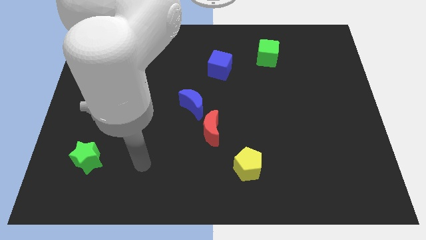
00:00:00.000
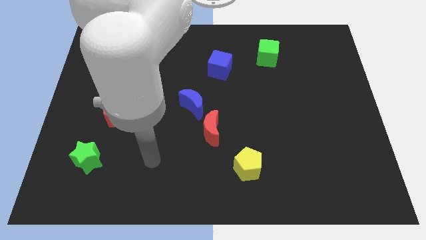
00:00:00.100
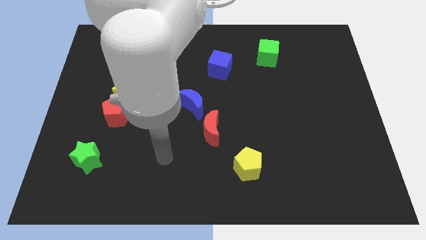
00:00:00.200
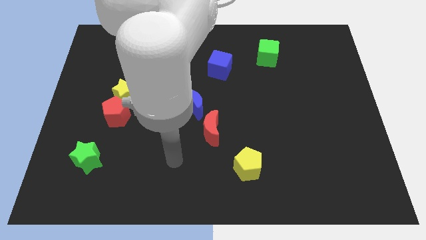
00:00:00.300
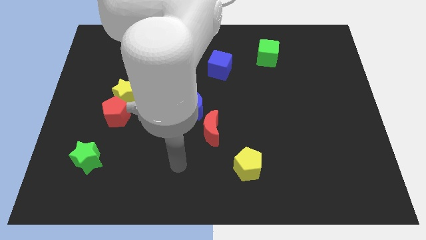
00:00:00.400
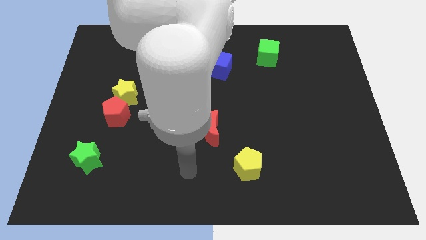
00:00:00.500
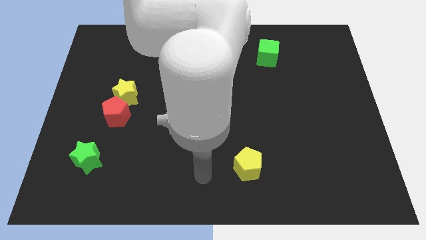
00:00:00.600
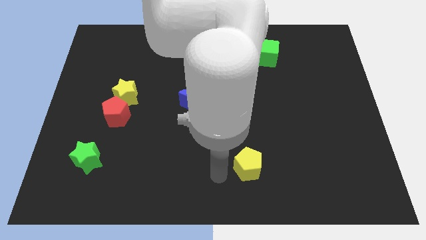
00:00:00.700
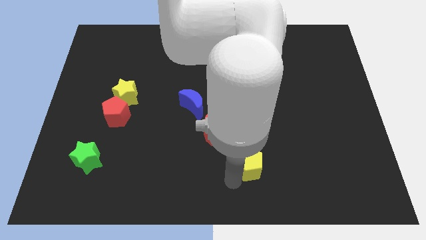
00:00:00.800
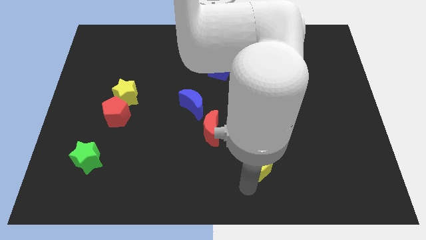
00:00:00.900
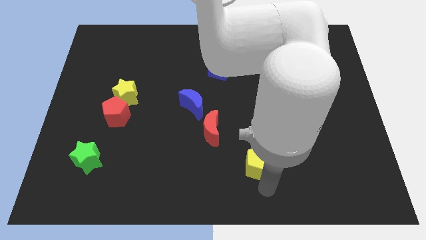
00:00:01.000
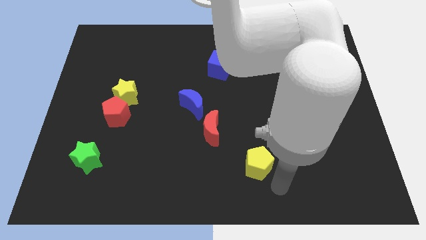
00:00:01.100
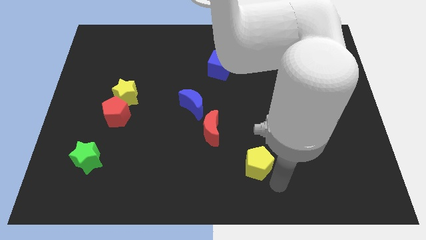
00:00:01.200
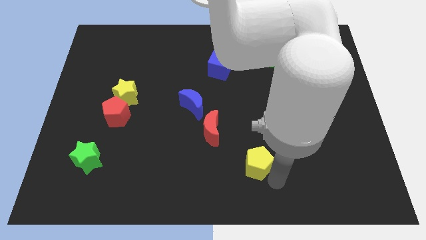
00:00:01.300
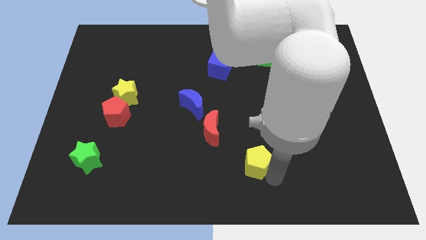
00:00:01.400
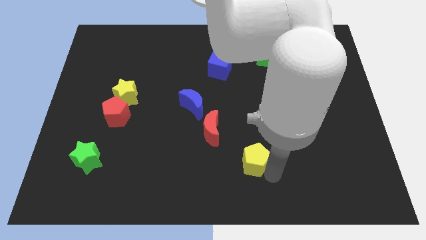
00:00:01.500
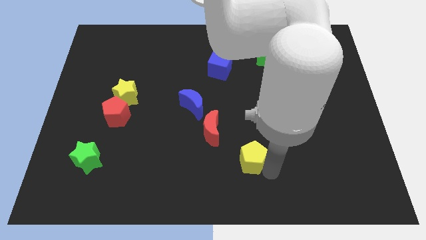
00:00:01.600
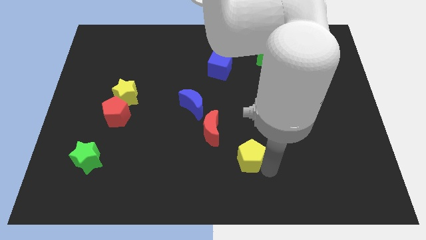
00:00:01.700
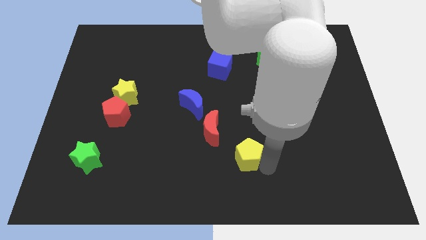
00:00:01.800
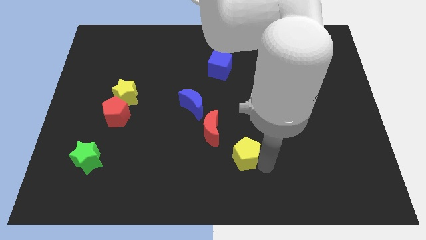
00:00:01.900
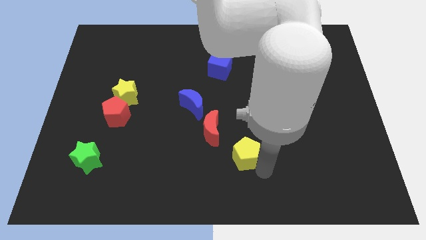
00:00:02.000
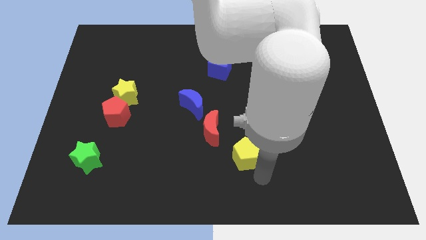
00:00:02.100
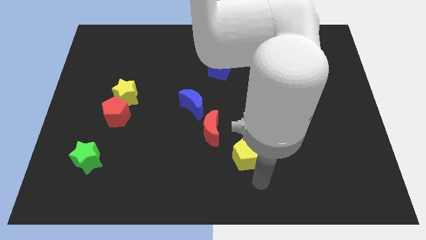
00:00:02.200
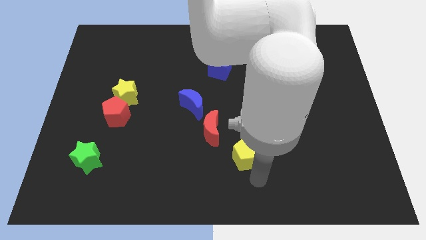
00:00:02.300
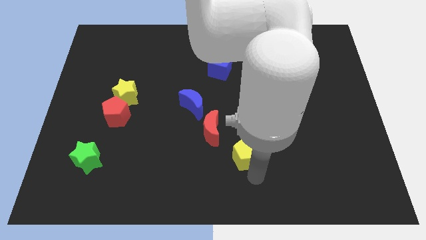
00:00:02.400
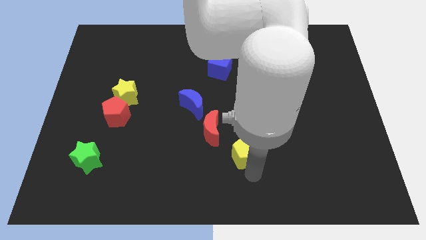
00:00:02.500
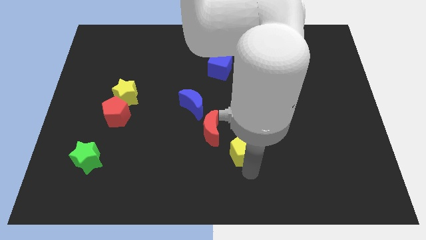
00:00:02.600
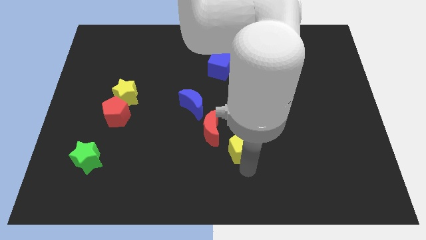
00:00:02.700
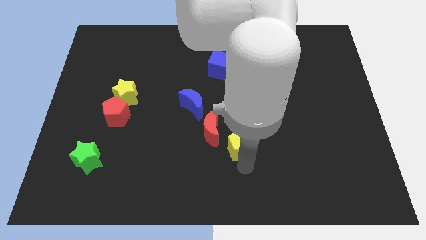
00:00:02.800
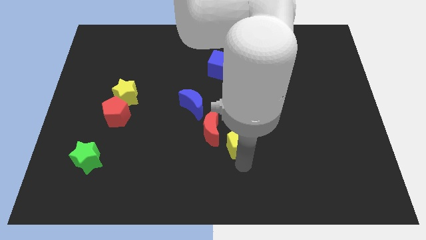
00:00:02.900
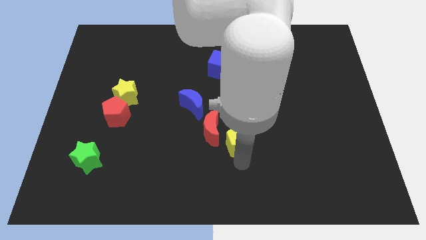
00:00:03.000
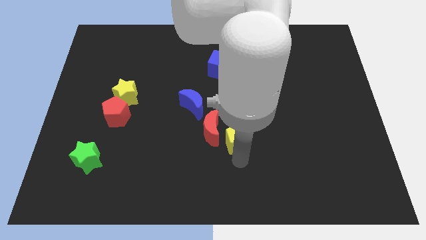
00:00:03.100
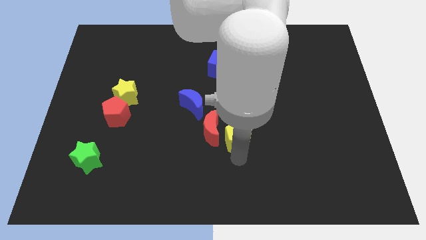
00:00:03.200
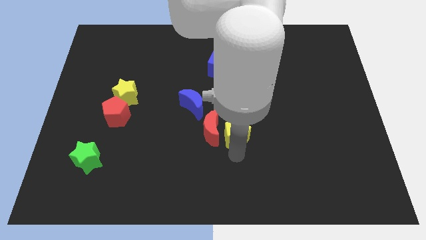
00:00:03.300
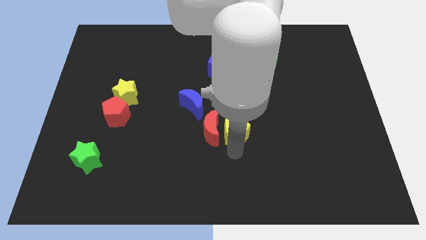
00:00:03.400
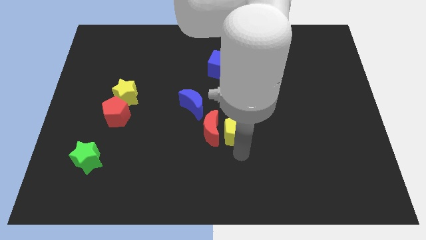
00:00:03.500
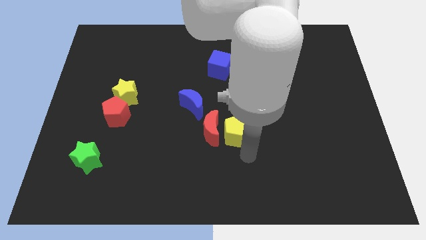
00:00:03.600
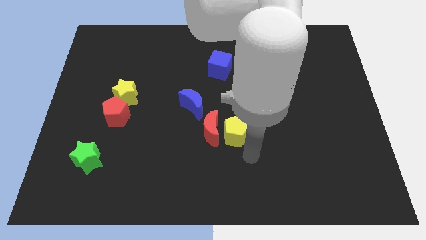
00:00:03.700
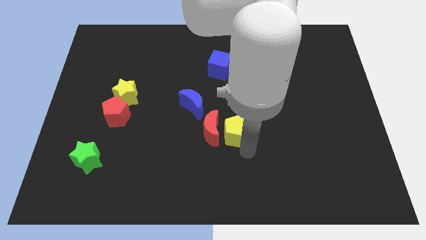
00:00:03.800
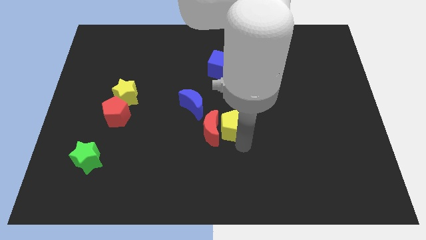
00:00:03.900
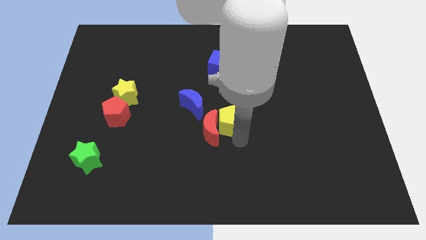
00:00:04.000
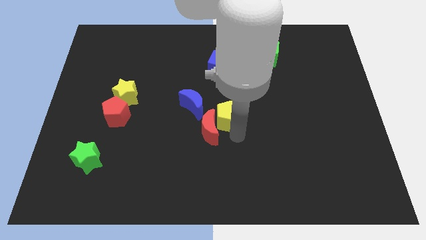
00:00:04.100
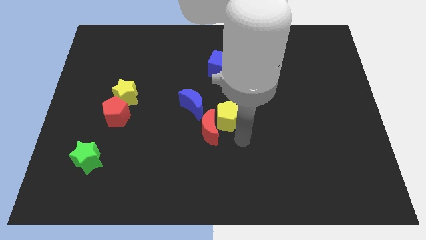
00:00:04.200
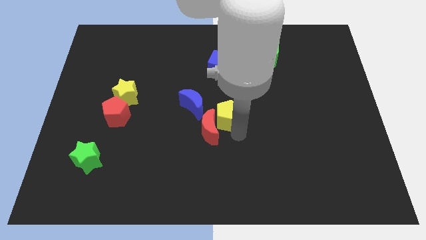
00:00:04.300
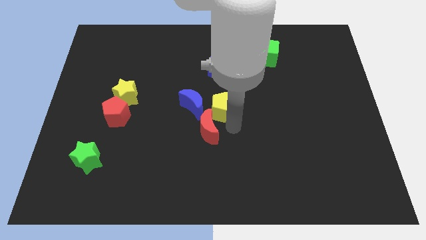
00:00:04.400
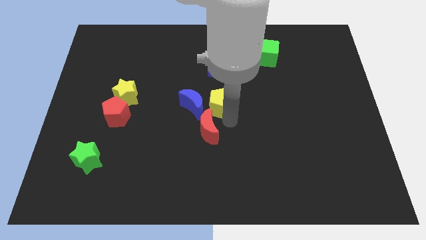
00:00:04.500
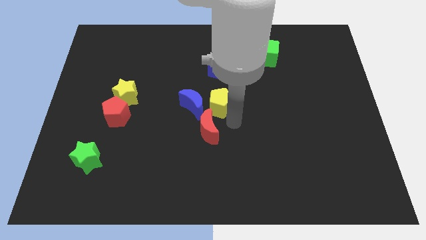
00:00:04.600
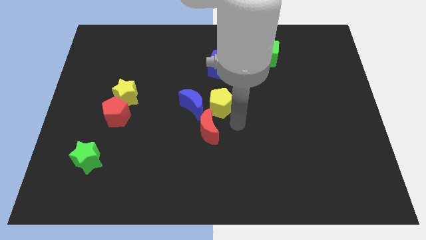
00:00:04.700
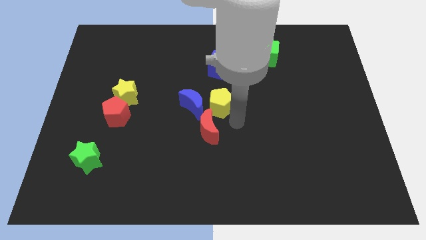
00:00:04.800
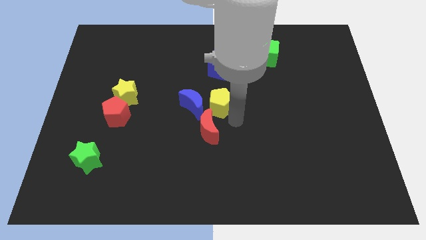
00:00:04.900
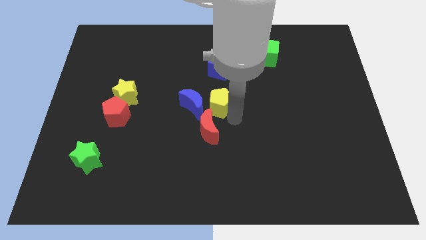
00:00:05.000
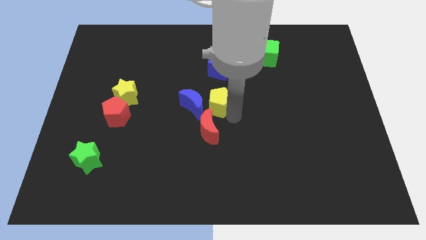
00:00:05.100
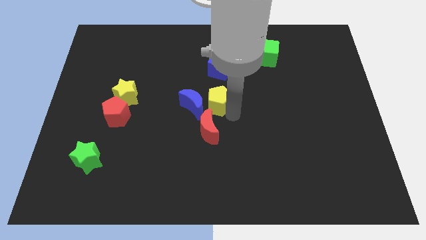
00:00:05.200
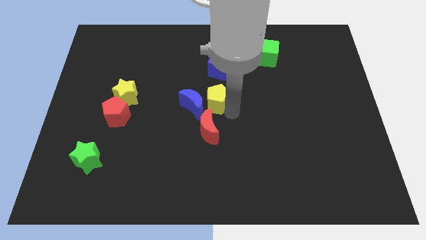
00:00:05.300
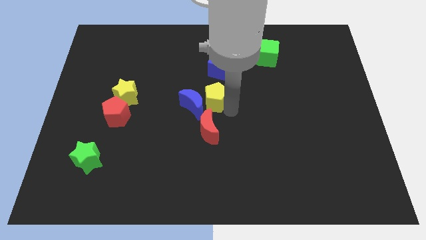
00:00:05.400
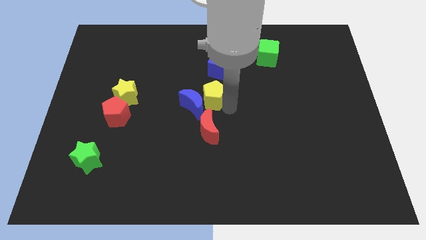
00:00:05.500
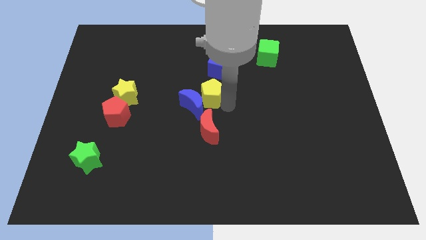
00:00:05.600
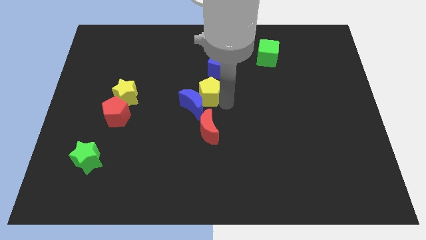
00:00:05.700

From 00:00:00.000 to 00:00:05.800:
put the yellow pentagon diagonally down and to the left of the blue cube

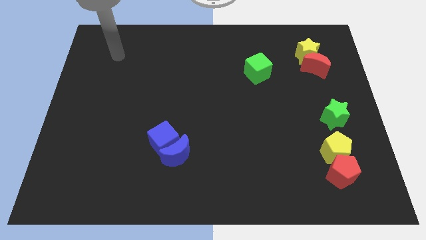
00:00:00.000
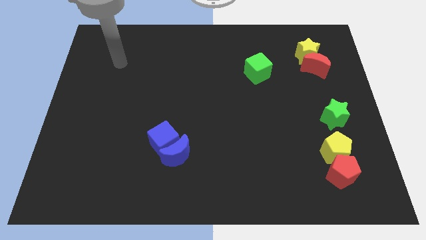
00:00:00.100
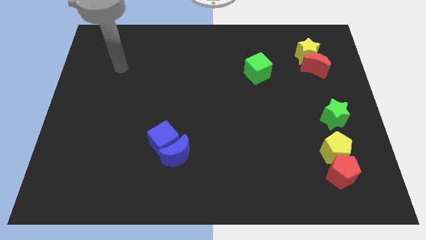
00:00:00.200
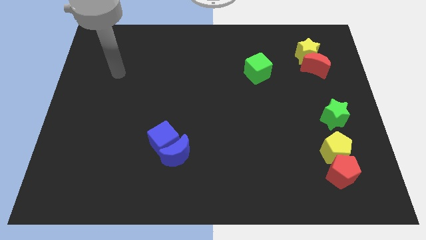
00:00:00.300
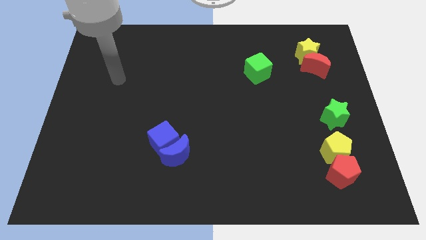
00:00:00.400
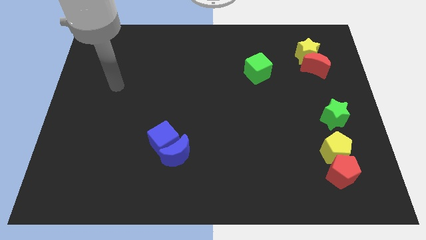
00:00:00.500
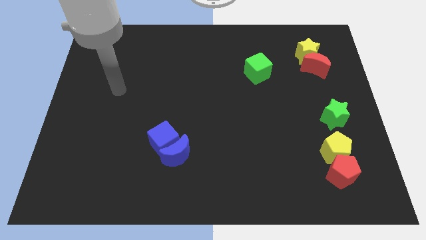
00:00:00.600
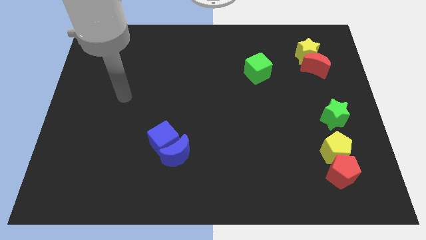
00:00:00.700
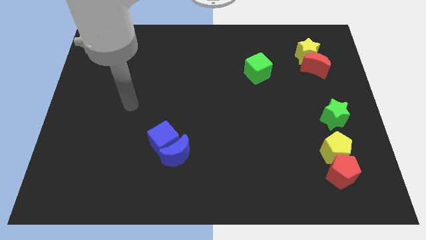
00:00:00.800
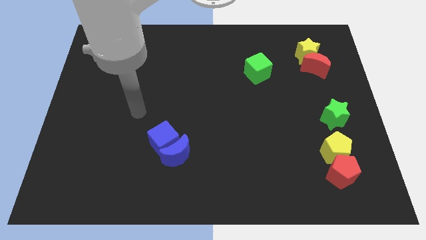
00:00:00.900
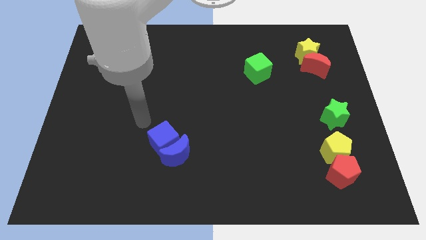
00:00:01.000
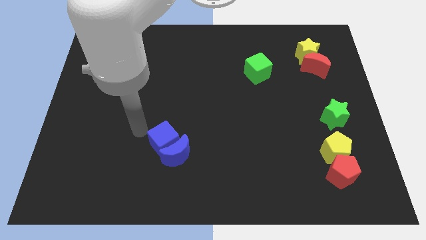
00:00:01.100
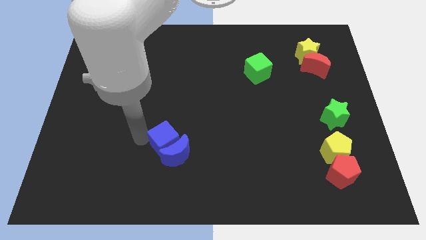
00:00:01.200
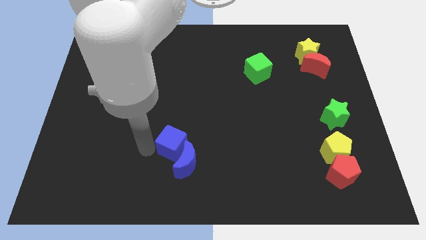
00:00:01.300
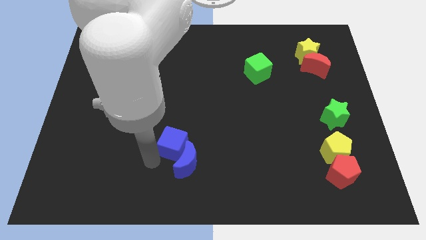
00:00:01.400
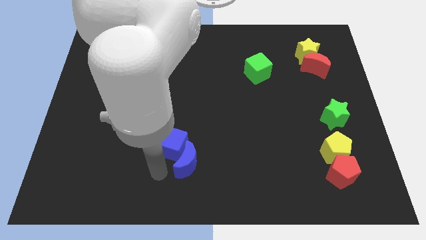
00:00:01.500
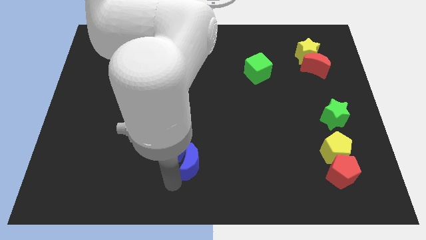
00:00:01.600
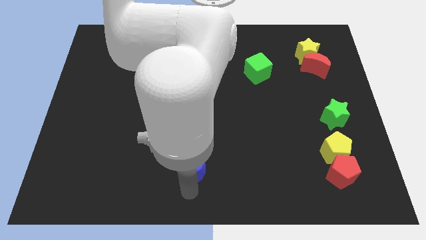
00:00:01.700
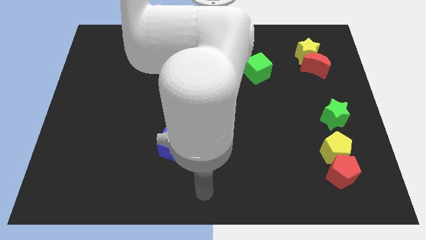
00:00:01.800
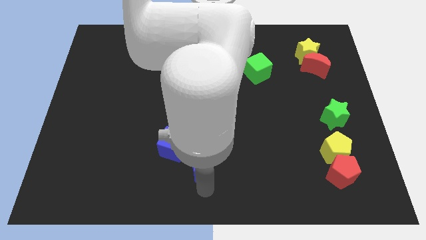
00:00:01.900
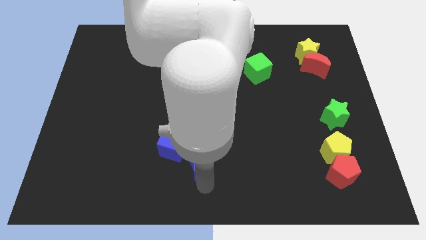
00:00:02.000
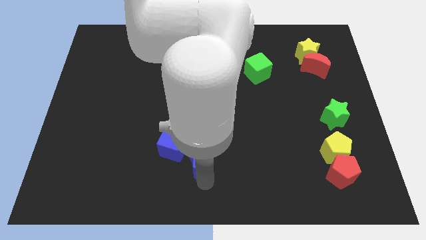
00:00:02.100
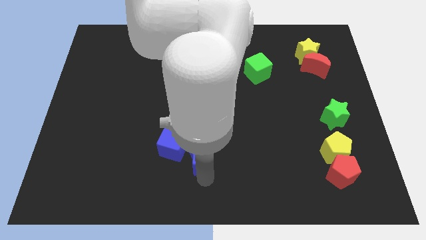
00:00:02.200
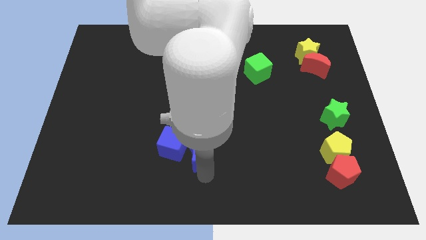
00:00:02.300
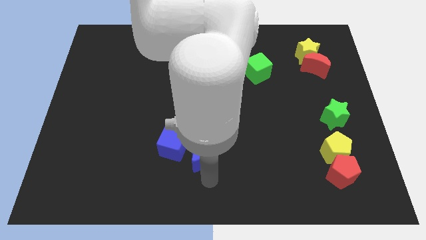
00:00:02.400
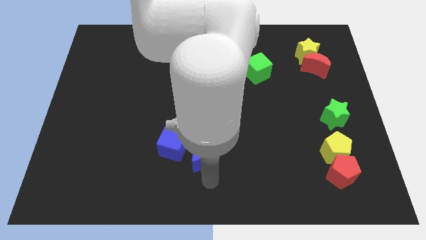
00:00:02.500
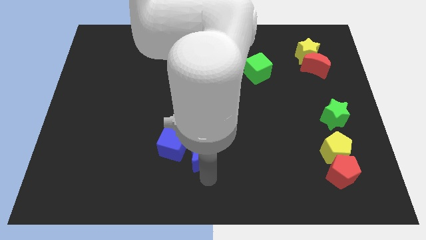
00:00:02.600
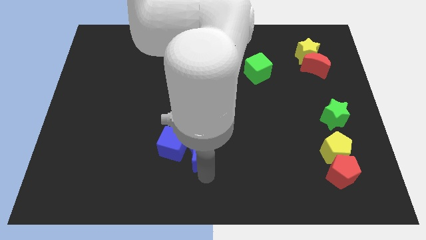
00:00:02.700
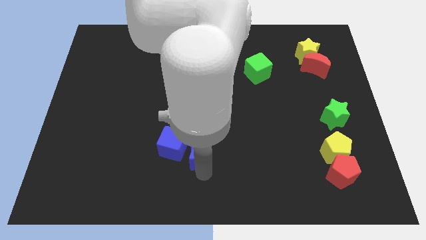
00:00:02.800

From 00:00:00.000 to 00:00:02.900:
put the blue moon to the top right of the blue cube
